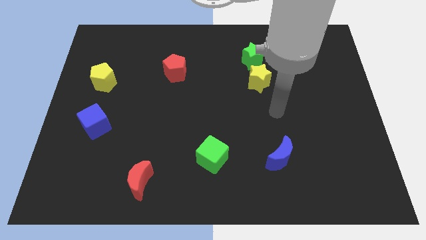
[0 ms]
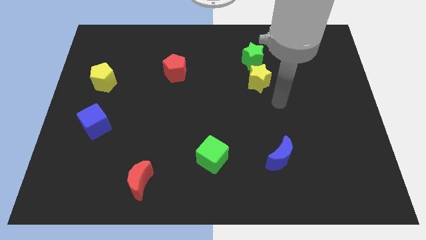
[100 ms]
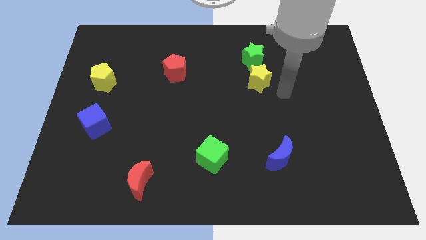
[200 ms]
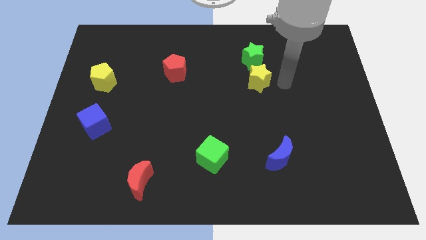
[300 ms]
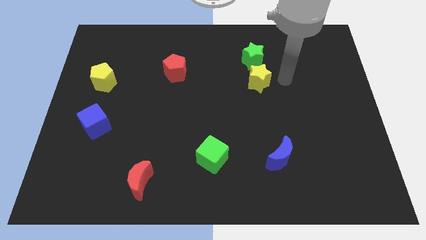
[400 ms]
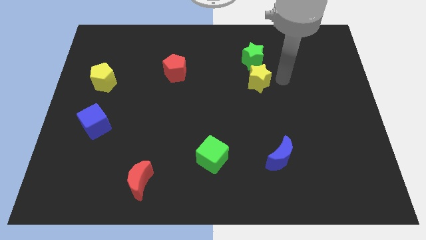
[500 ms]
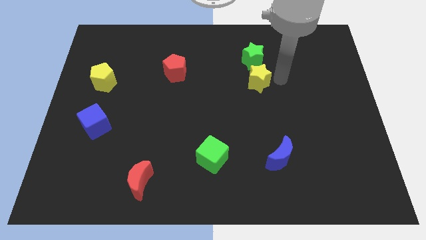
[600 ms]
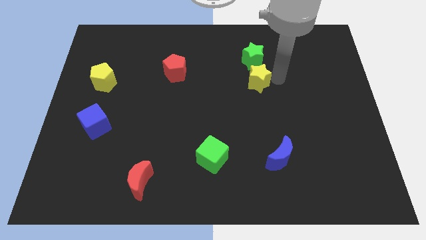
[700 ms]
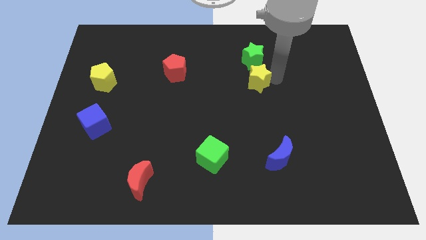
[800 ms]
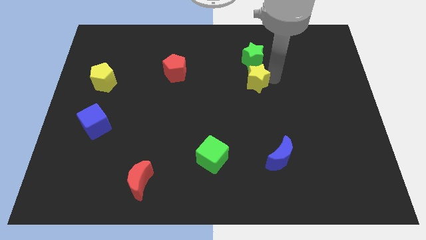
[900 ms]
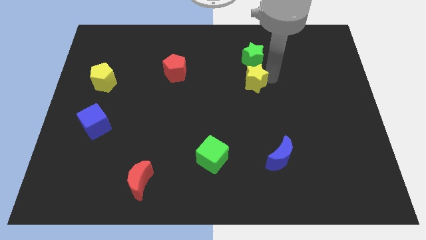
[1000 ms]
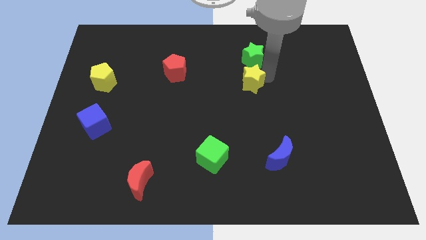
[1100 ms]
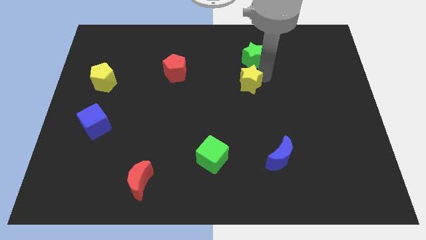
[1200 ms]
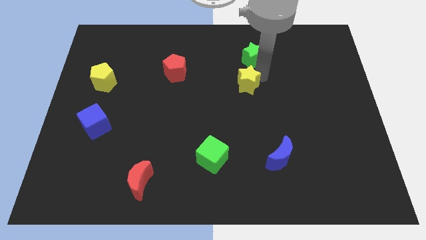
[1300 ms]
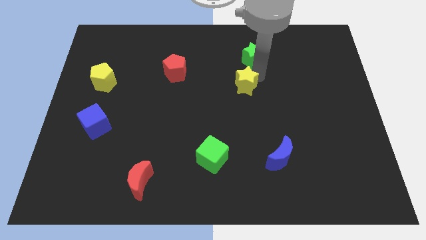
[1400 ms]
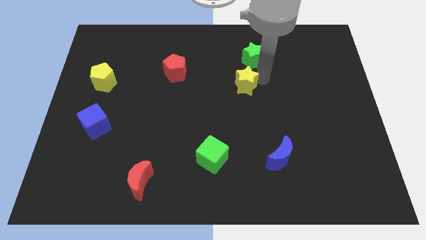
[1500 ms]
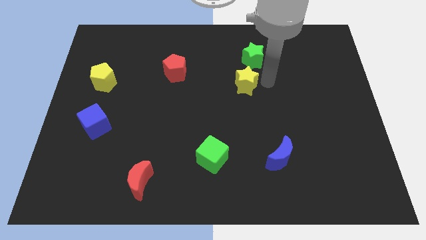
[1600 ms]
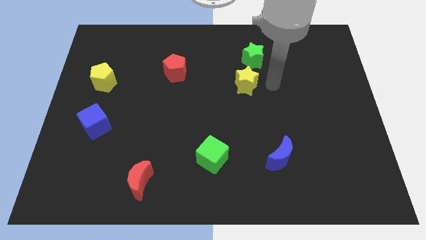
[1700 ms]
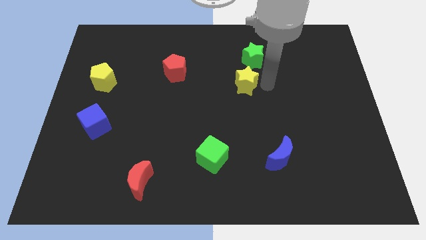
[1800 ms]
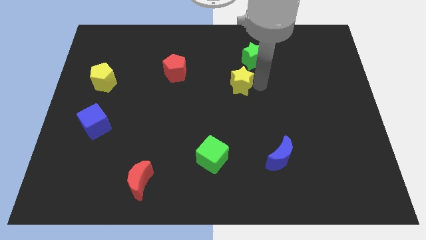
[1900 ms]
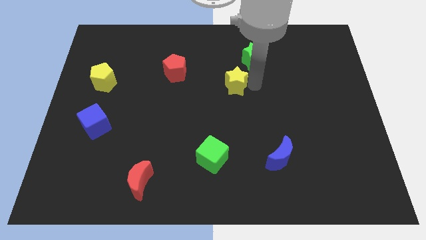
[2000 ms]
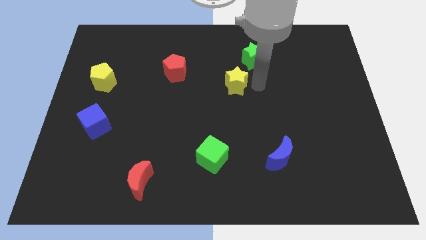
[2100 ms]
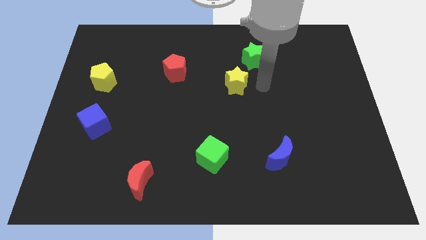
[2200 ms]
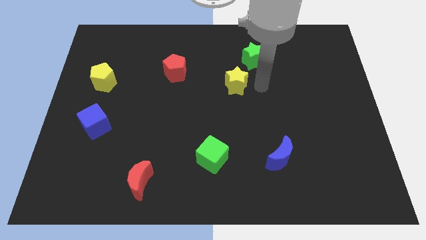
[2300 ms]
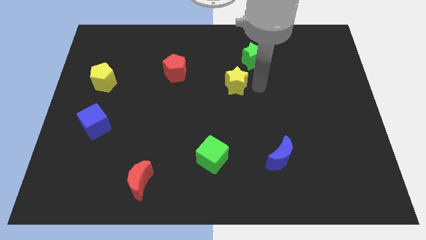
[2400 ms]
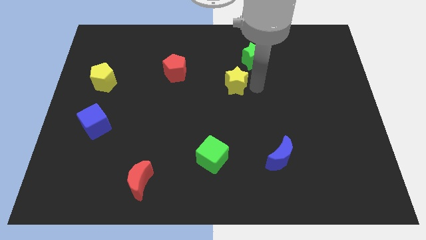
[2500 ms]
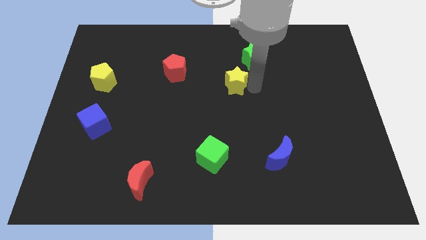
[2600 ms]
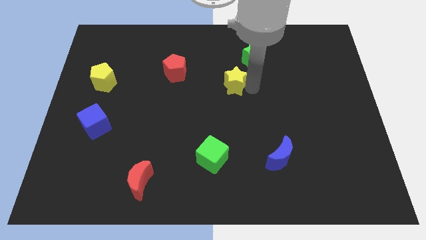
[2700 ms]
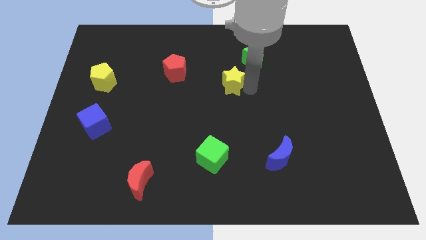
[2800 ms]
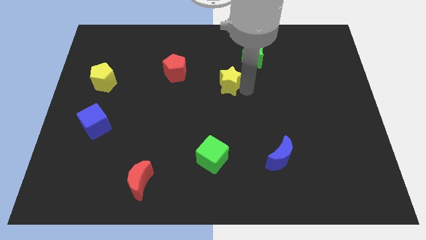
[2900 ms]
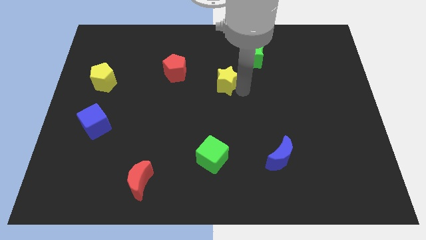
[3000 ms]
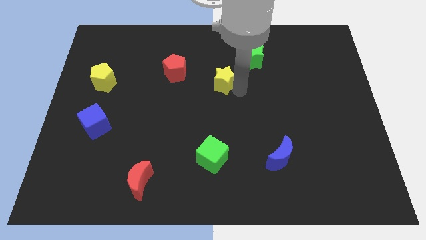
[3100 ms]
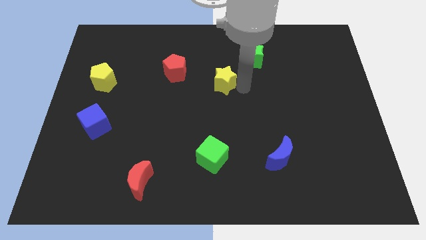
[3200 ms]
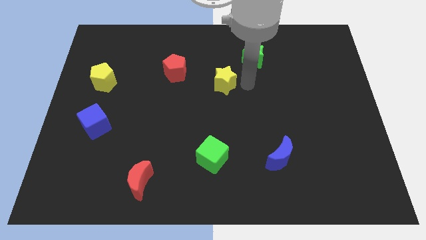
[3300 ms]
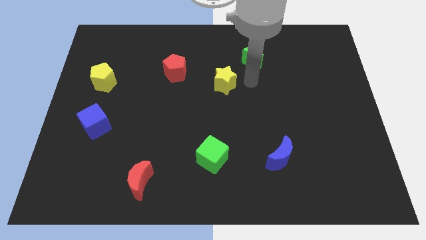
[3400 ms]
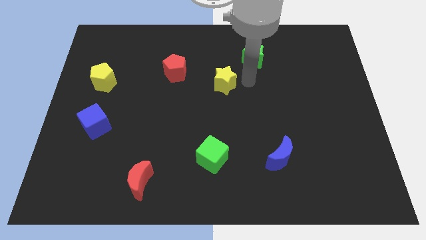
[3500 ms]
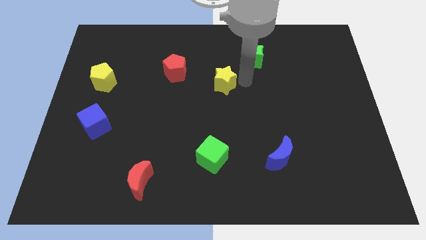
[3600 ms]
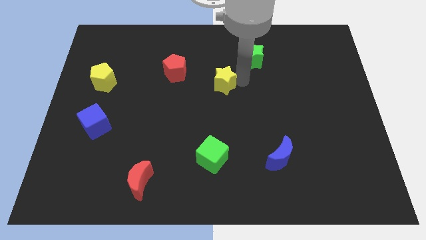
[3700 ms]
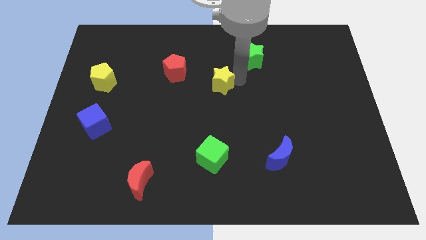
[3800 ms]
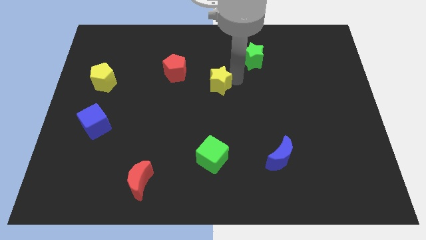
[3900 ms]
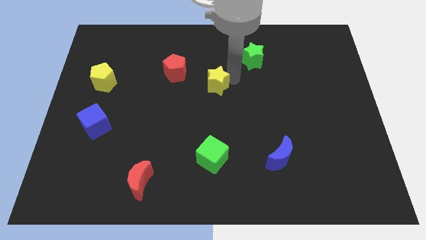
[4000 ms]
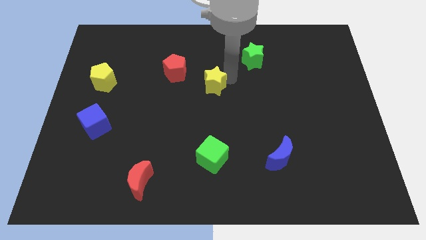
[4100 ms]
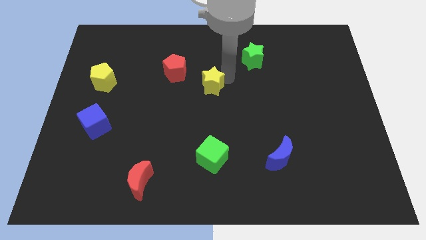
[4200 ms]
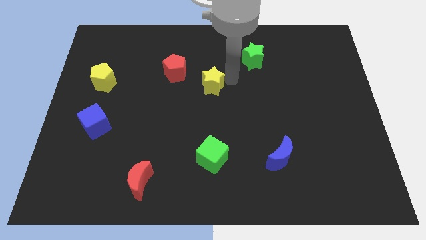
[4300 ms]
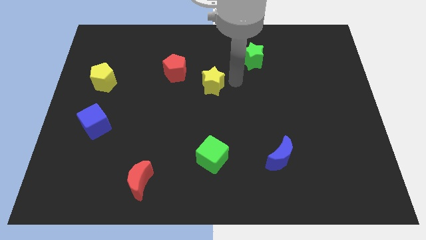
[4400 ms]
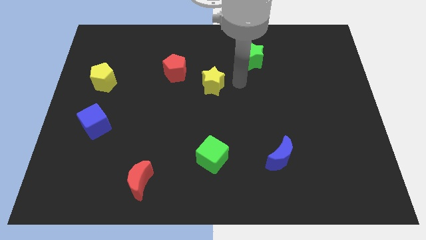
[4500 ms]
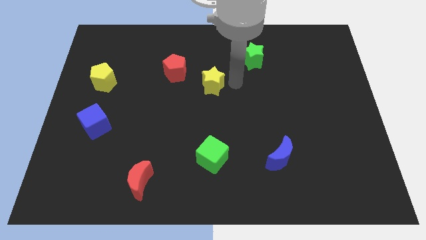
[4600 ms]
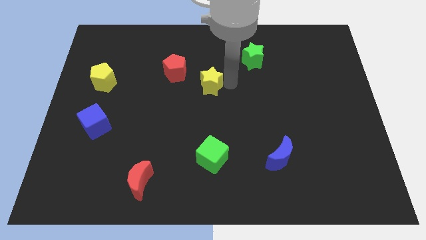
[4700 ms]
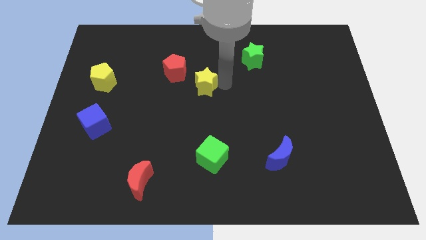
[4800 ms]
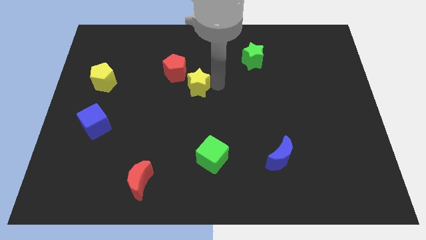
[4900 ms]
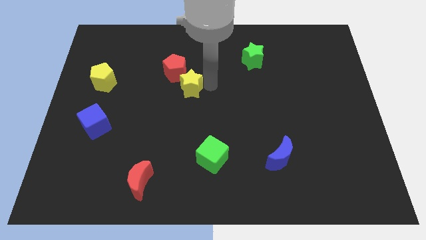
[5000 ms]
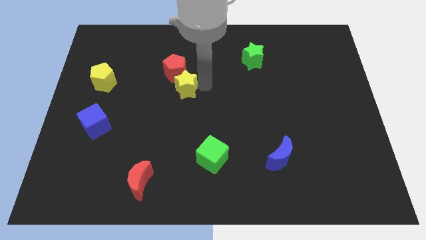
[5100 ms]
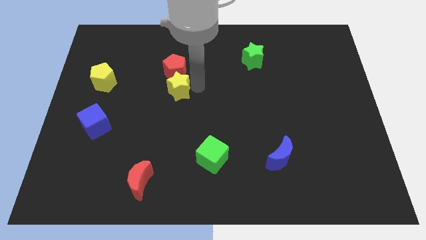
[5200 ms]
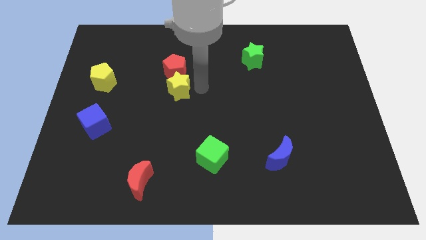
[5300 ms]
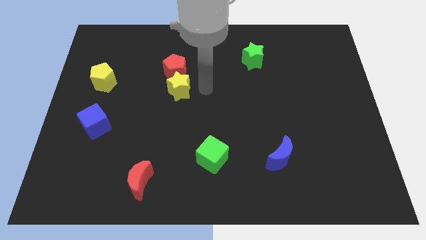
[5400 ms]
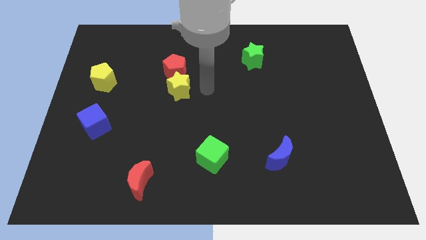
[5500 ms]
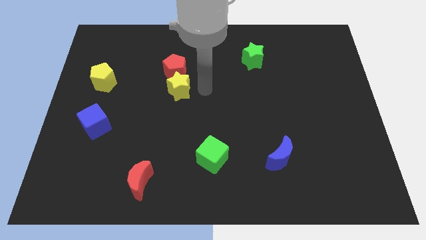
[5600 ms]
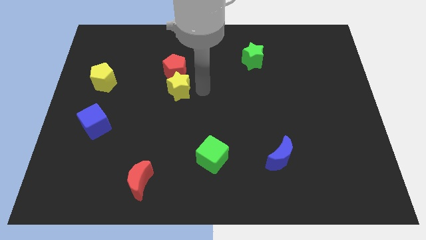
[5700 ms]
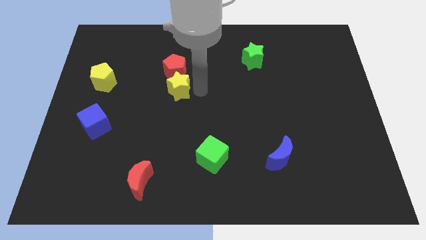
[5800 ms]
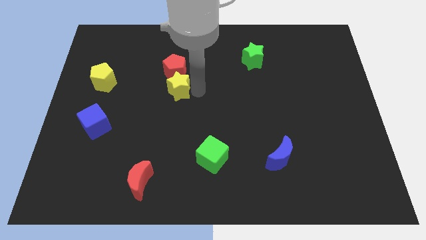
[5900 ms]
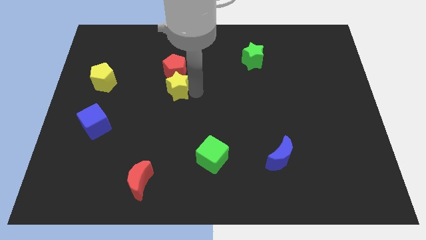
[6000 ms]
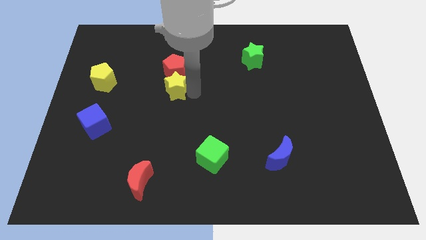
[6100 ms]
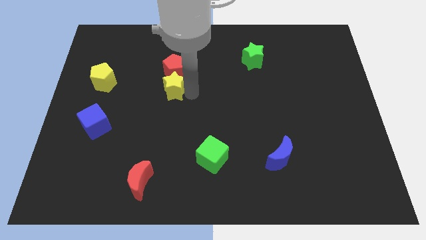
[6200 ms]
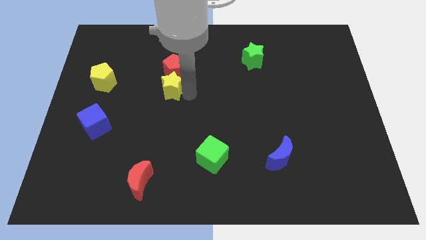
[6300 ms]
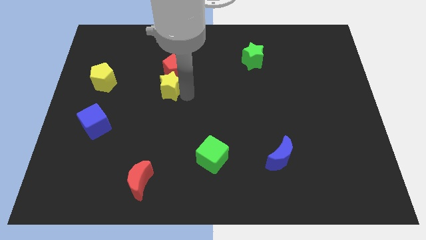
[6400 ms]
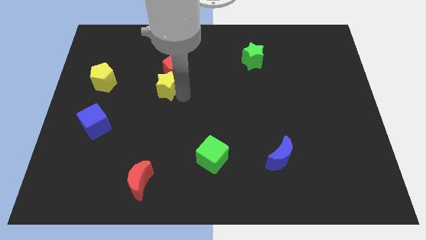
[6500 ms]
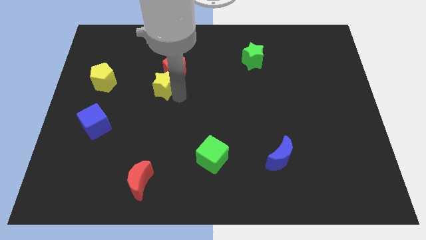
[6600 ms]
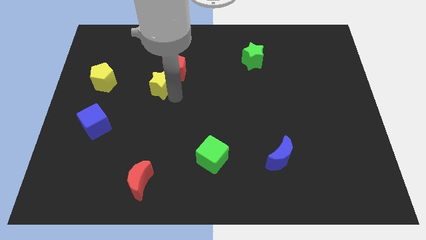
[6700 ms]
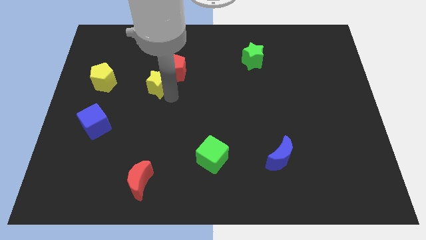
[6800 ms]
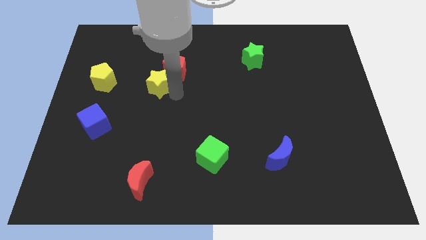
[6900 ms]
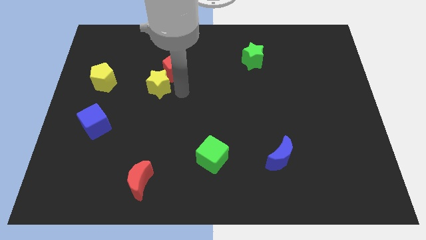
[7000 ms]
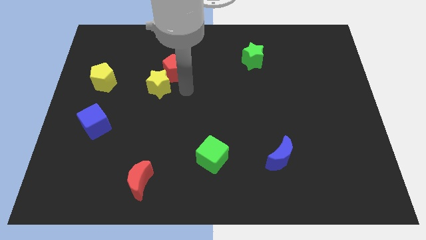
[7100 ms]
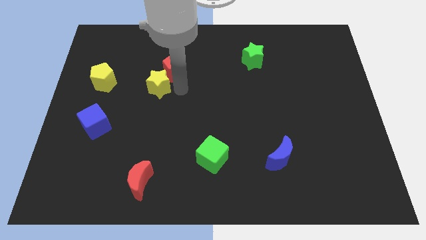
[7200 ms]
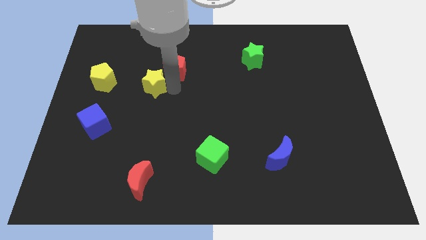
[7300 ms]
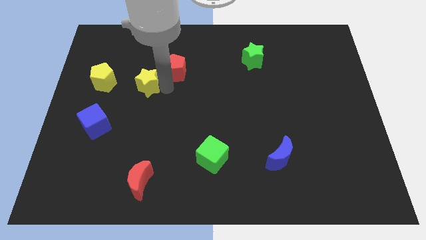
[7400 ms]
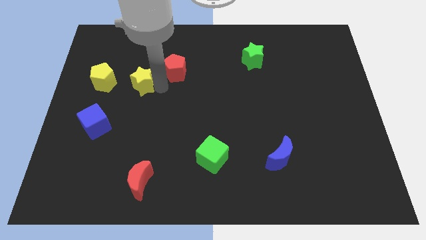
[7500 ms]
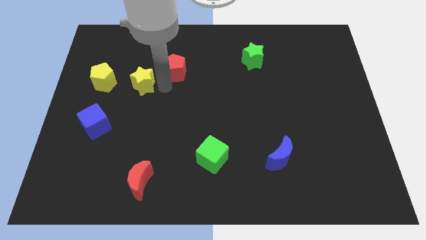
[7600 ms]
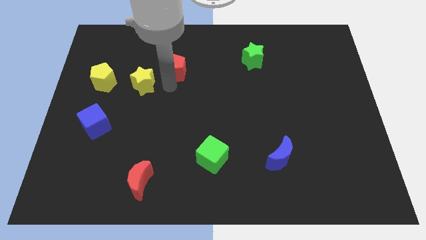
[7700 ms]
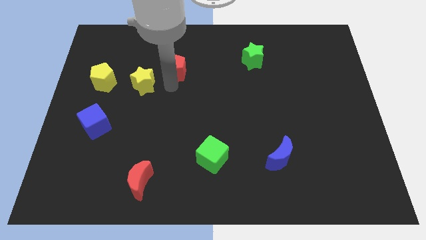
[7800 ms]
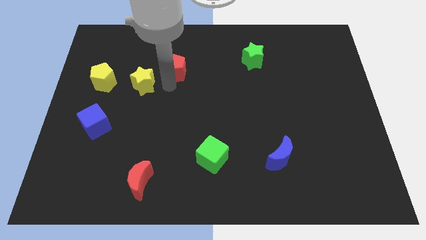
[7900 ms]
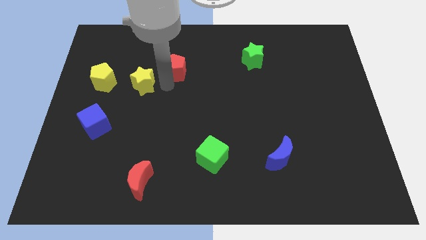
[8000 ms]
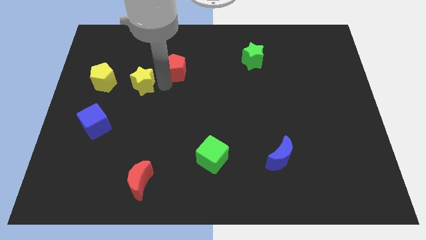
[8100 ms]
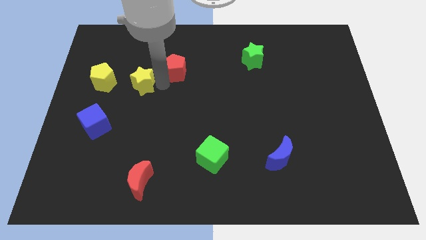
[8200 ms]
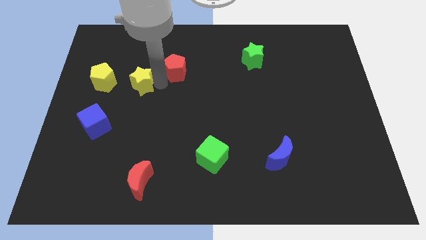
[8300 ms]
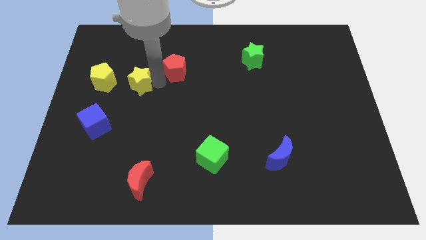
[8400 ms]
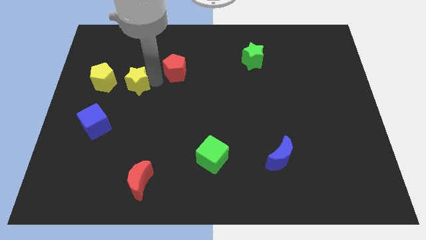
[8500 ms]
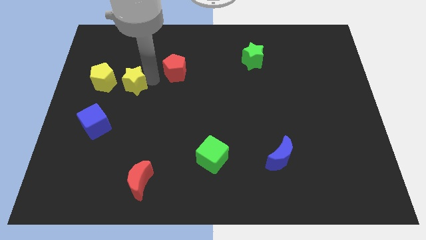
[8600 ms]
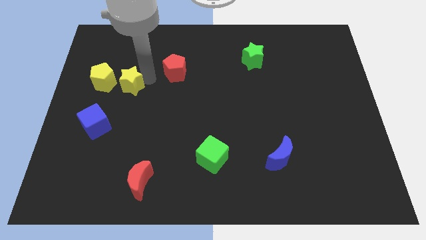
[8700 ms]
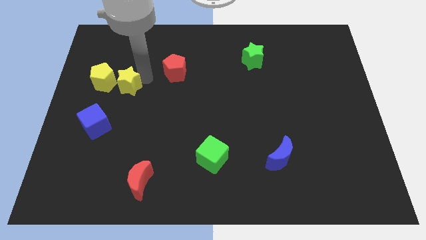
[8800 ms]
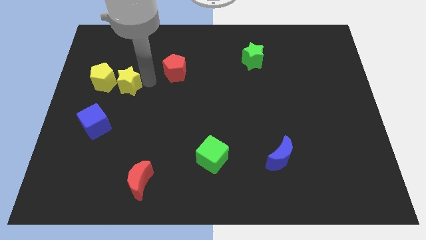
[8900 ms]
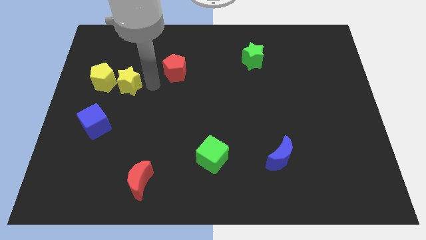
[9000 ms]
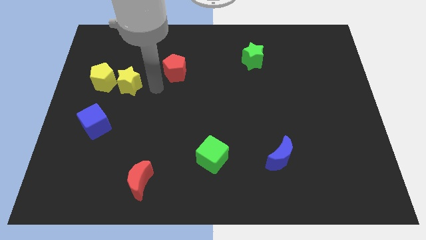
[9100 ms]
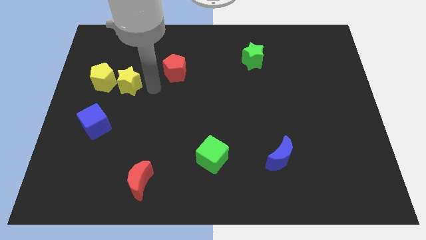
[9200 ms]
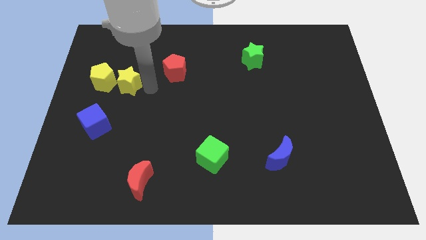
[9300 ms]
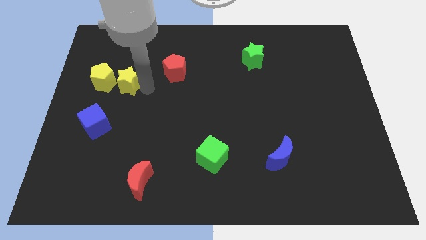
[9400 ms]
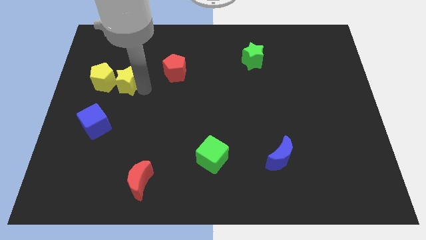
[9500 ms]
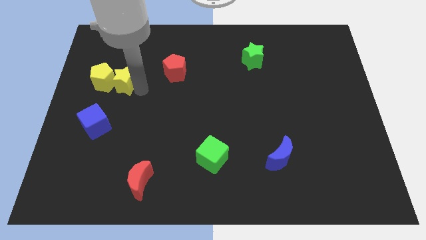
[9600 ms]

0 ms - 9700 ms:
push the yellow star to the yellow pentagon
